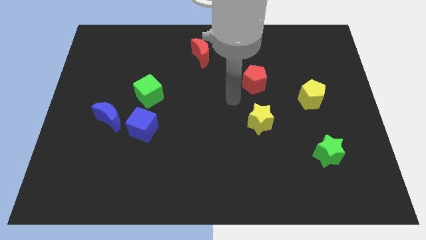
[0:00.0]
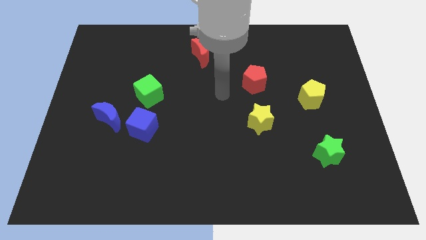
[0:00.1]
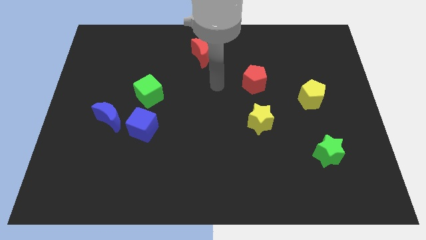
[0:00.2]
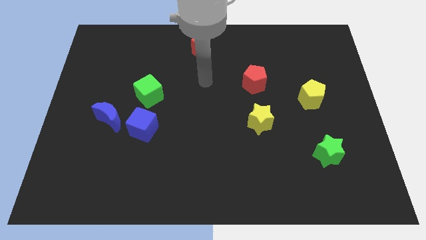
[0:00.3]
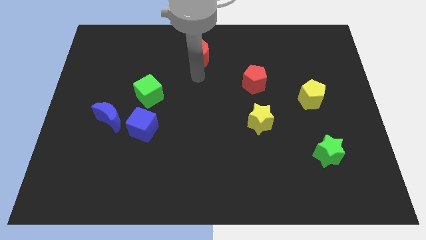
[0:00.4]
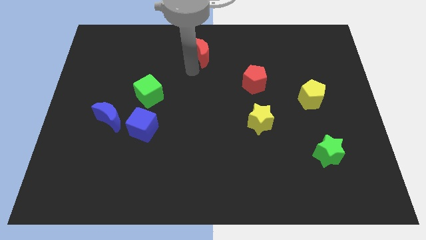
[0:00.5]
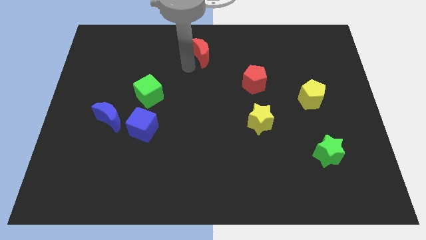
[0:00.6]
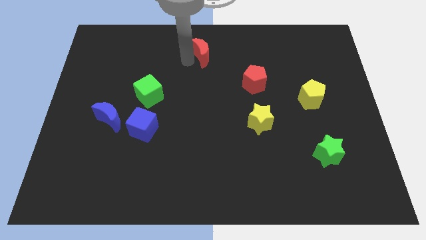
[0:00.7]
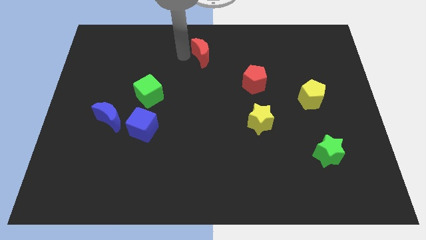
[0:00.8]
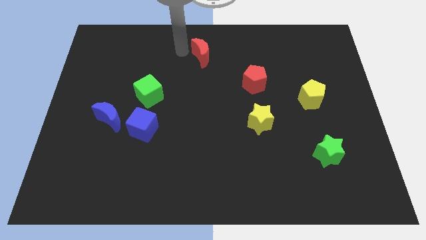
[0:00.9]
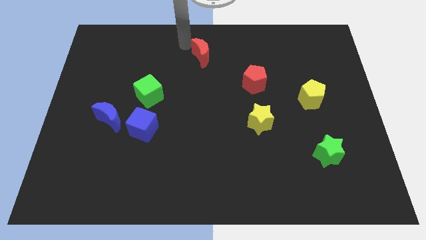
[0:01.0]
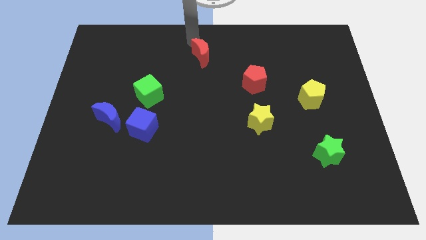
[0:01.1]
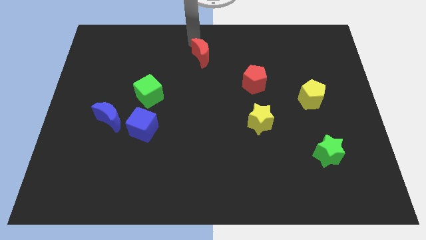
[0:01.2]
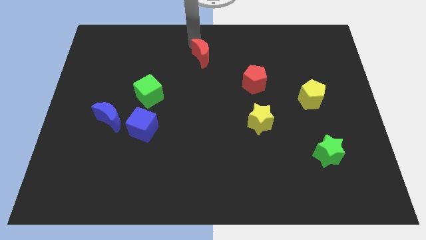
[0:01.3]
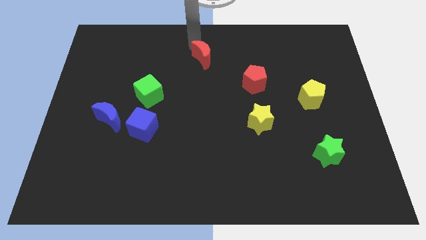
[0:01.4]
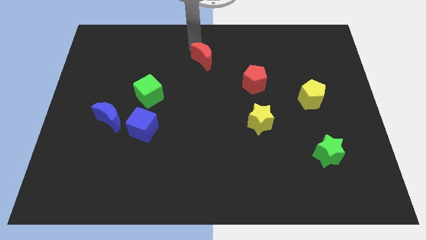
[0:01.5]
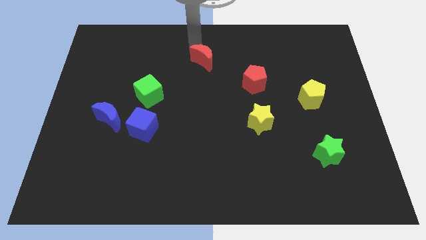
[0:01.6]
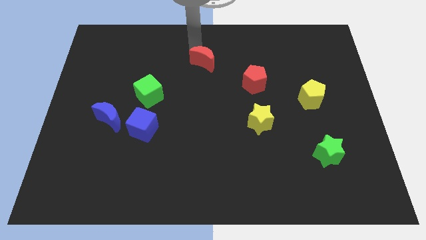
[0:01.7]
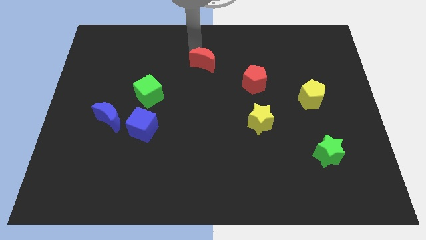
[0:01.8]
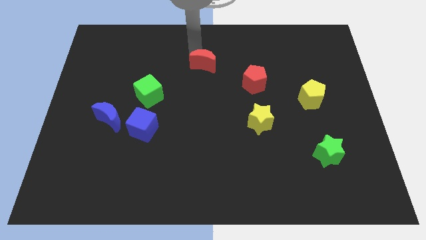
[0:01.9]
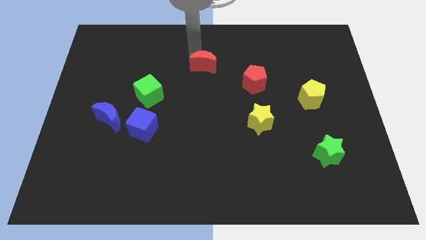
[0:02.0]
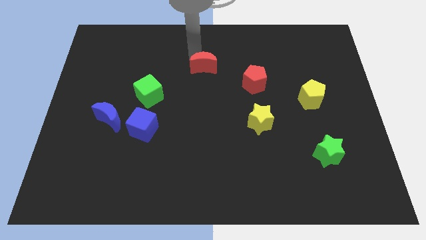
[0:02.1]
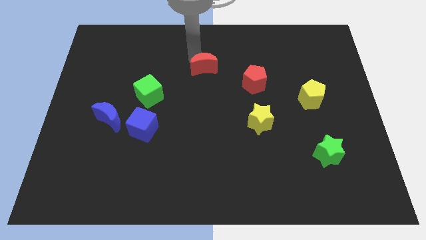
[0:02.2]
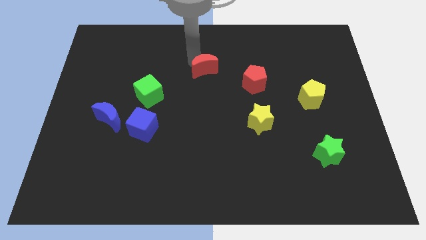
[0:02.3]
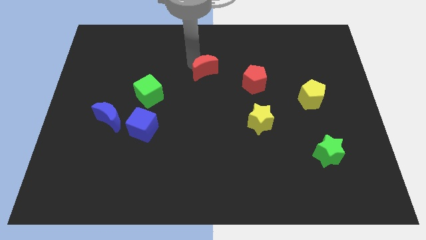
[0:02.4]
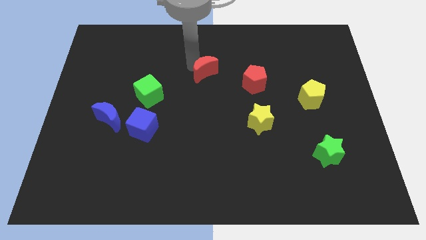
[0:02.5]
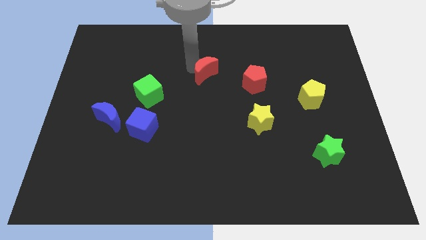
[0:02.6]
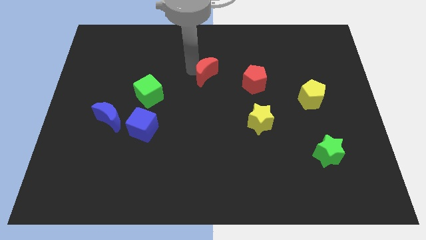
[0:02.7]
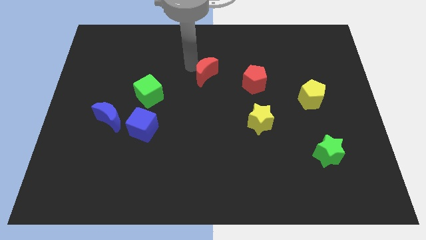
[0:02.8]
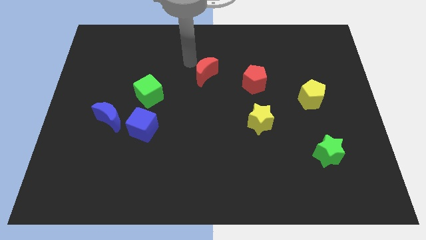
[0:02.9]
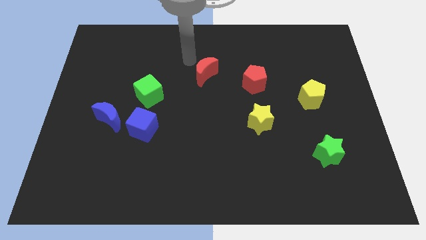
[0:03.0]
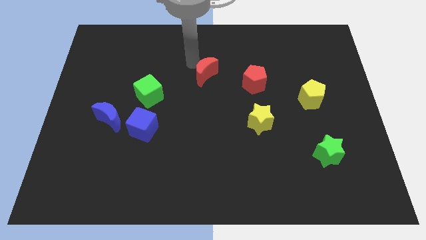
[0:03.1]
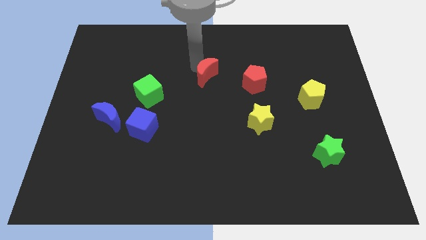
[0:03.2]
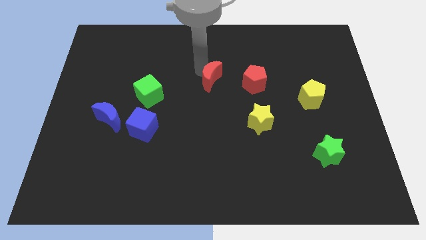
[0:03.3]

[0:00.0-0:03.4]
slightly move the red moon downwards and to the right diagonally

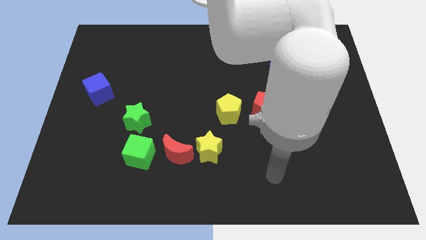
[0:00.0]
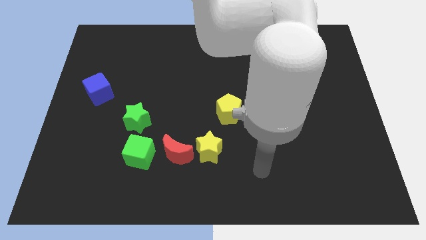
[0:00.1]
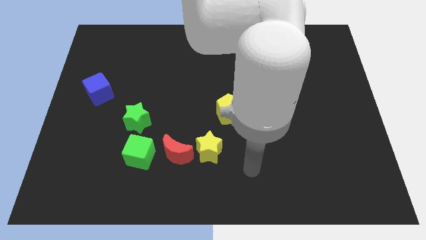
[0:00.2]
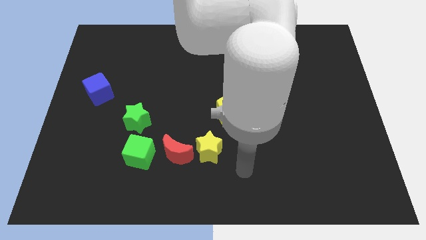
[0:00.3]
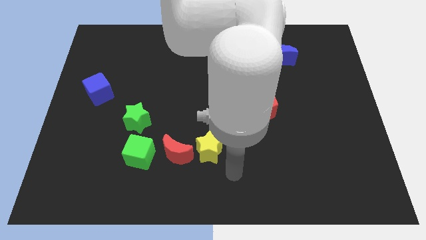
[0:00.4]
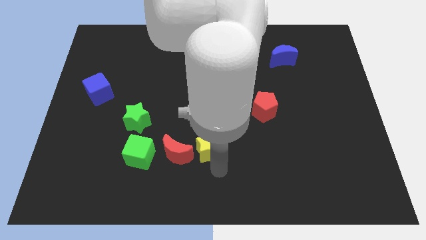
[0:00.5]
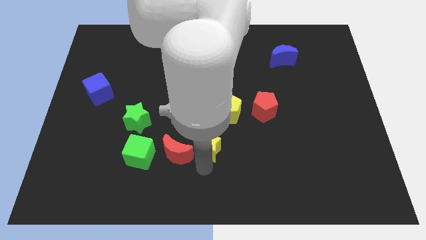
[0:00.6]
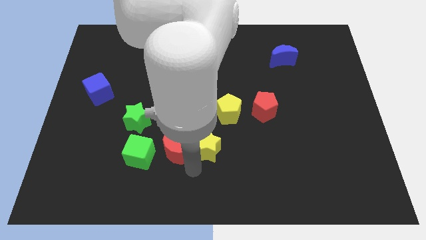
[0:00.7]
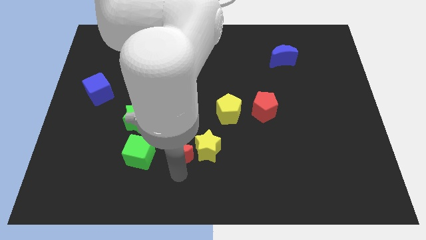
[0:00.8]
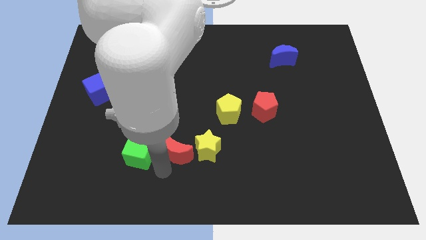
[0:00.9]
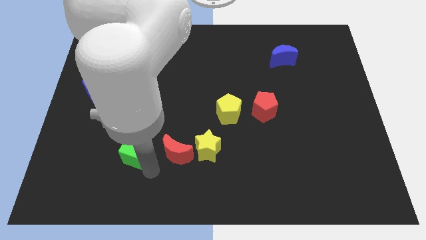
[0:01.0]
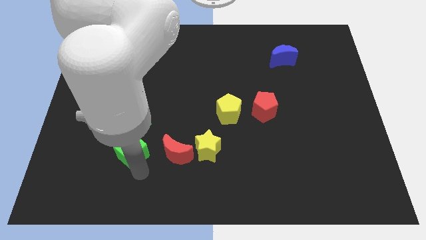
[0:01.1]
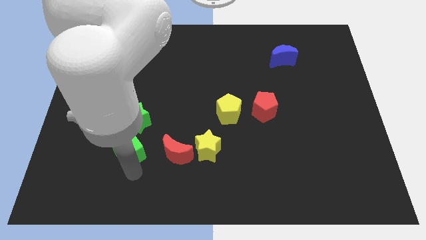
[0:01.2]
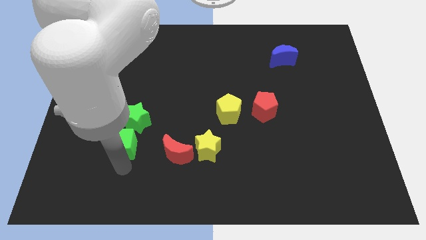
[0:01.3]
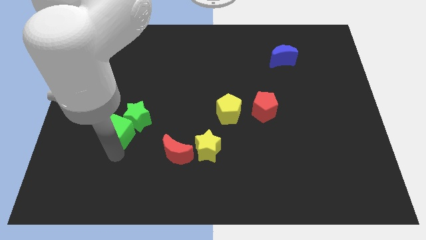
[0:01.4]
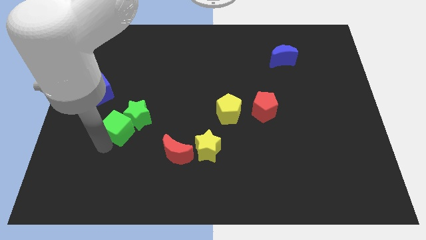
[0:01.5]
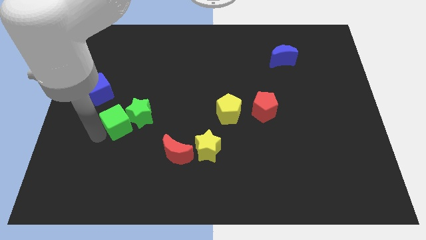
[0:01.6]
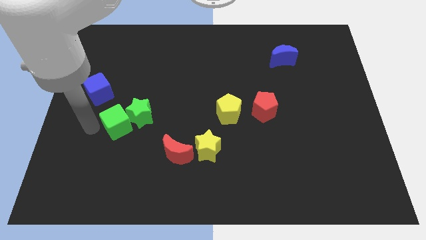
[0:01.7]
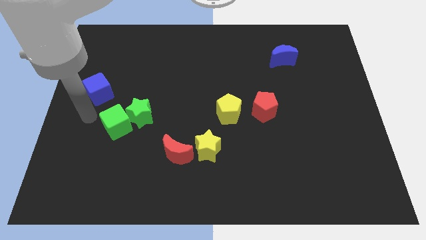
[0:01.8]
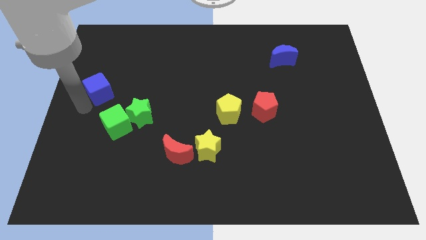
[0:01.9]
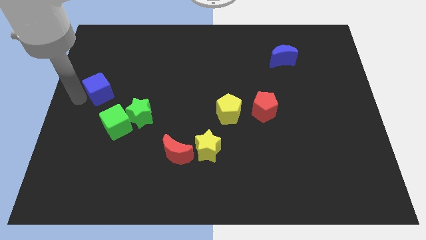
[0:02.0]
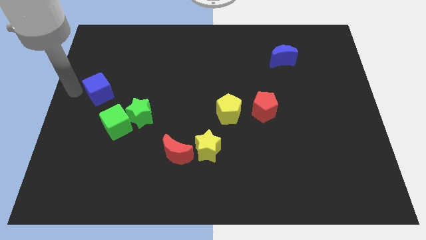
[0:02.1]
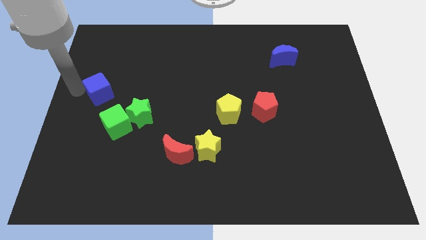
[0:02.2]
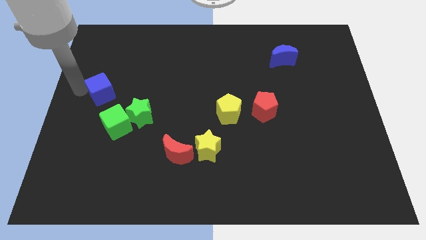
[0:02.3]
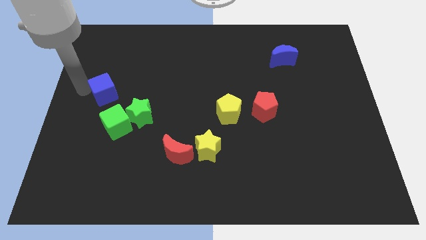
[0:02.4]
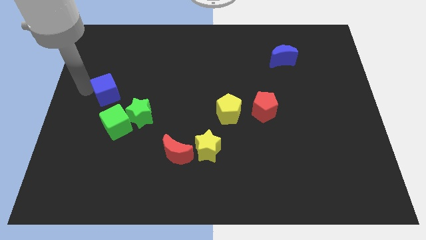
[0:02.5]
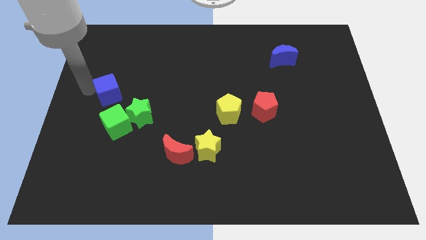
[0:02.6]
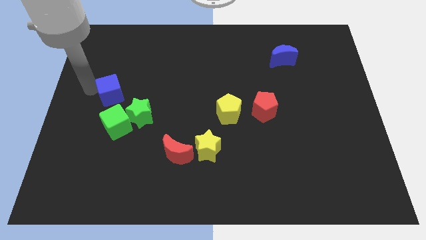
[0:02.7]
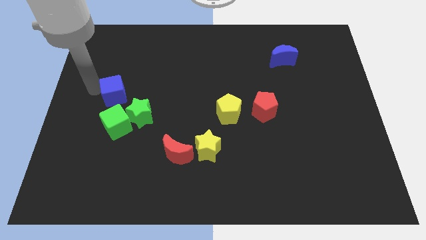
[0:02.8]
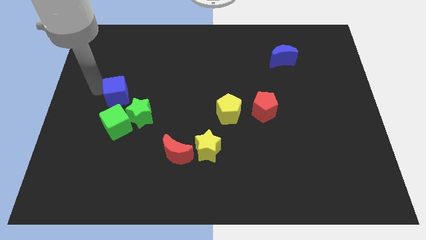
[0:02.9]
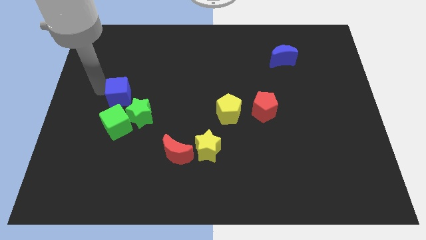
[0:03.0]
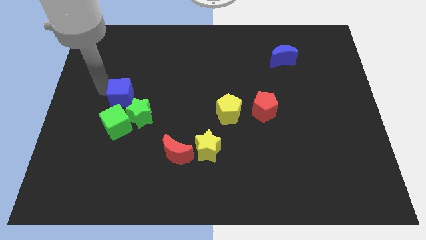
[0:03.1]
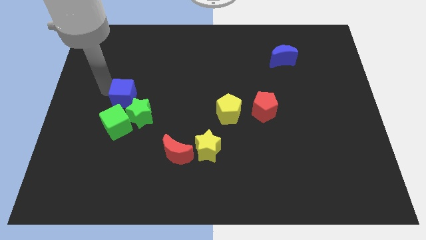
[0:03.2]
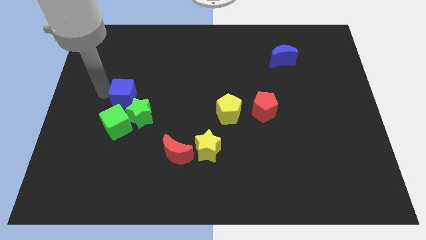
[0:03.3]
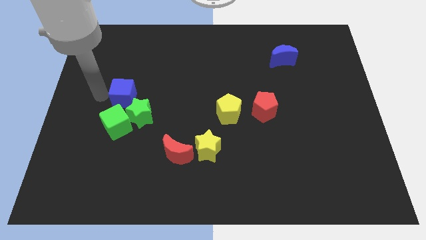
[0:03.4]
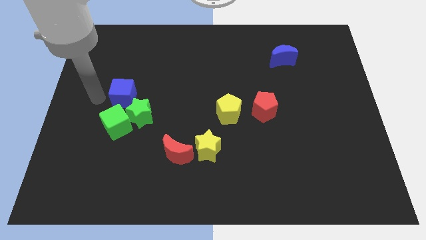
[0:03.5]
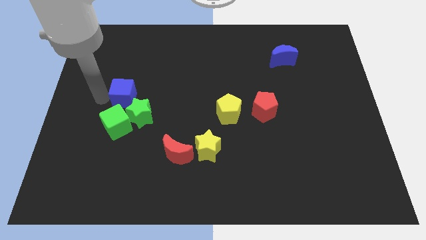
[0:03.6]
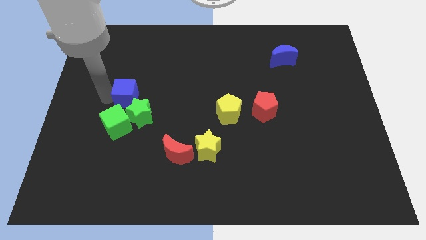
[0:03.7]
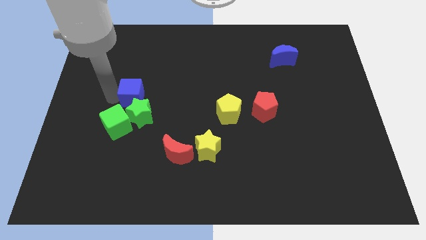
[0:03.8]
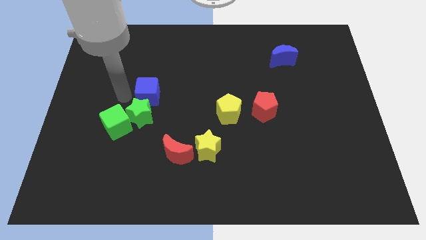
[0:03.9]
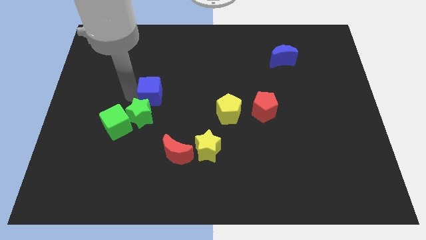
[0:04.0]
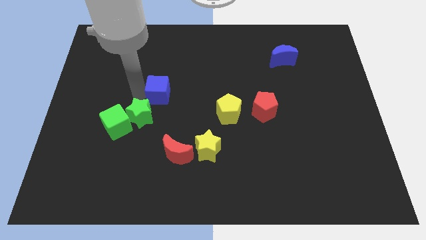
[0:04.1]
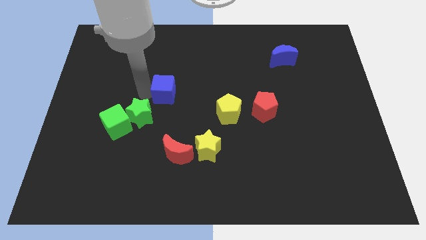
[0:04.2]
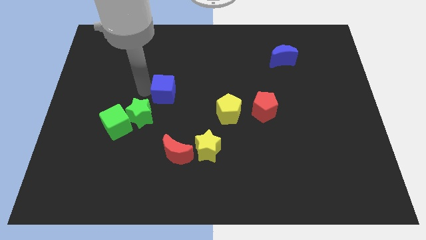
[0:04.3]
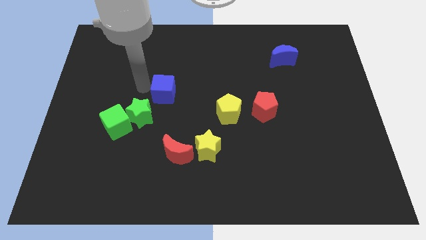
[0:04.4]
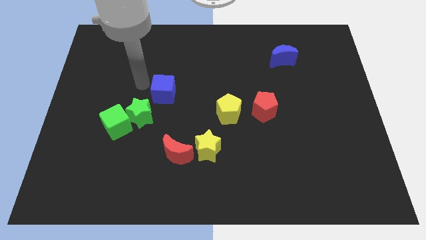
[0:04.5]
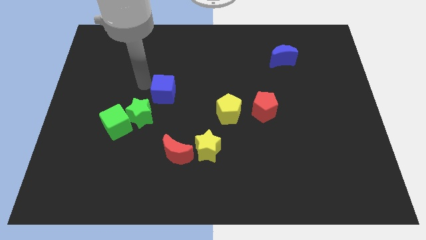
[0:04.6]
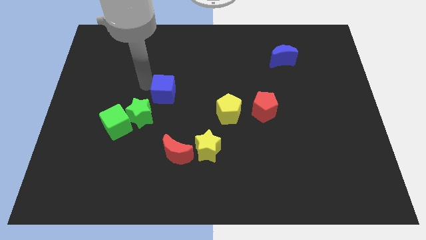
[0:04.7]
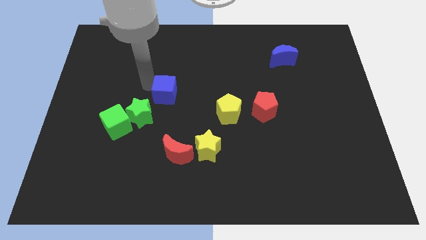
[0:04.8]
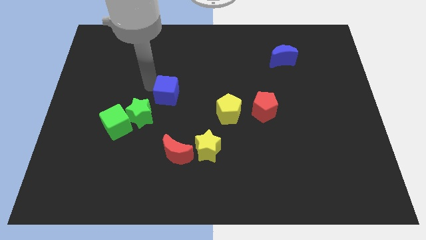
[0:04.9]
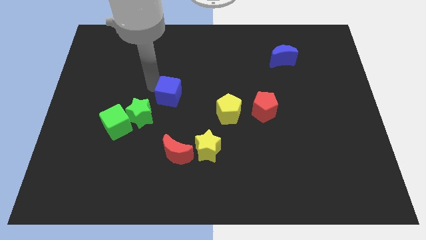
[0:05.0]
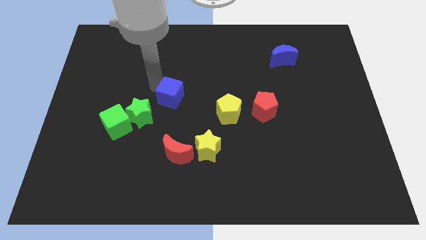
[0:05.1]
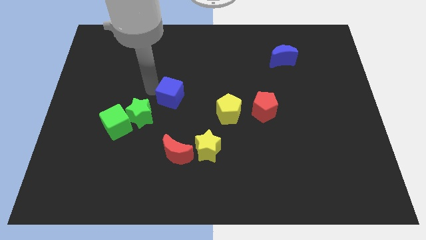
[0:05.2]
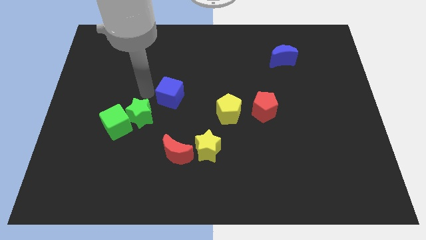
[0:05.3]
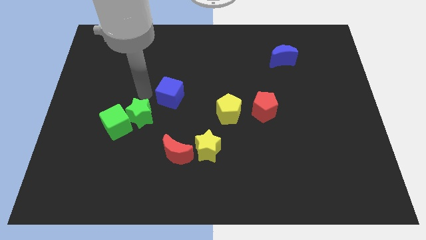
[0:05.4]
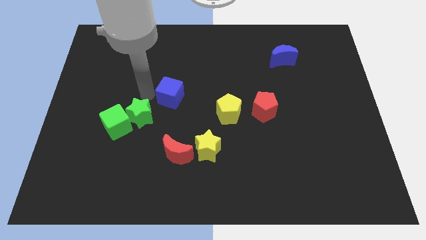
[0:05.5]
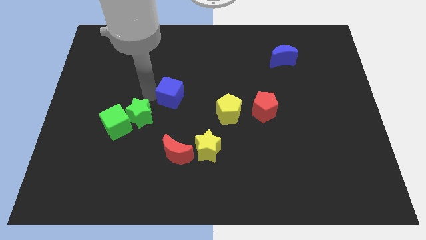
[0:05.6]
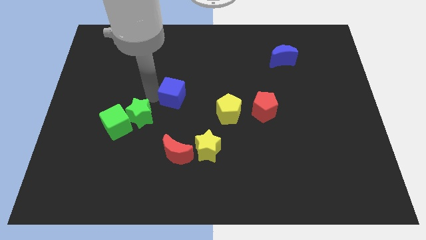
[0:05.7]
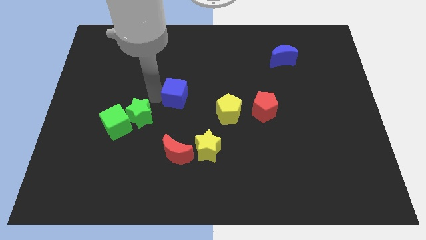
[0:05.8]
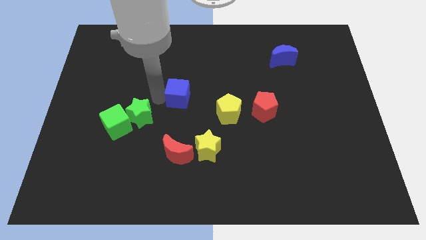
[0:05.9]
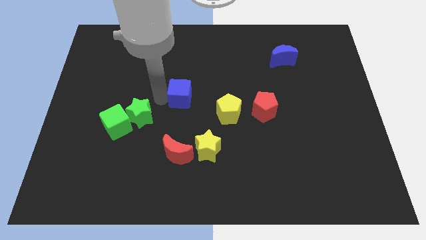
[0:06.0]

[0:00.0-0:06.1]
push the blue cube right
